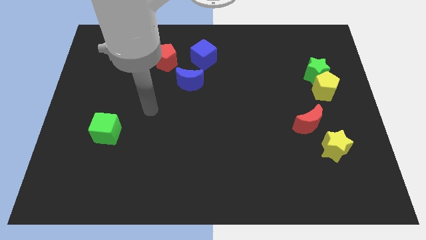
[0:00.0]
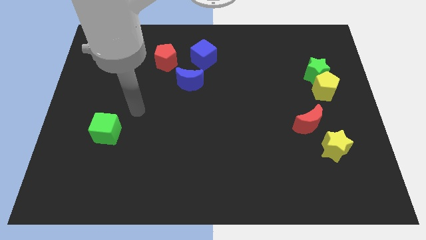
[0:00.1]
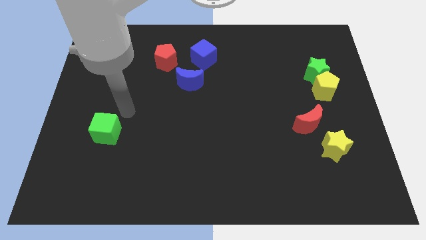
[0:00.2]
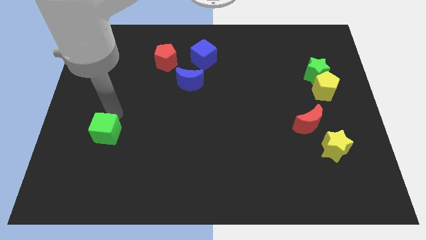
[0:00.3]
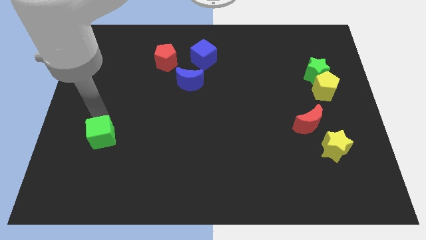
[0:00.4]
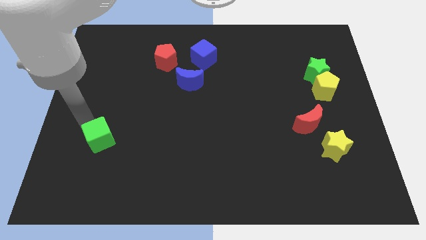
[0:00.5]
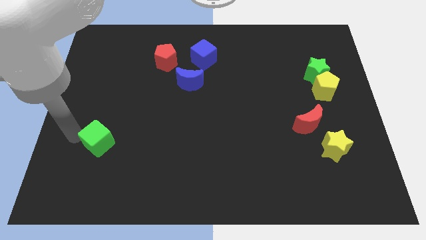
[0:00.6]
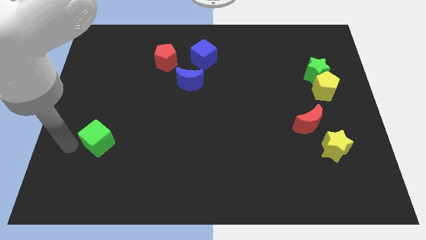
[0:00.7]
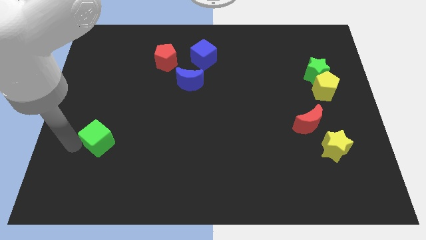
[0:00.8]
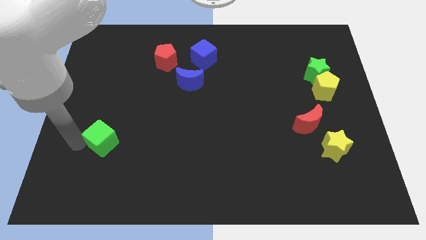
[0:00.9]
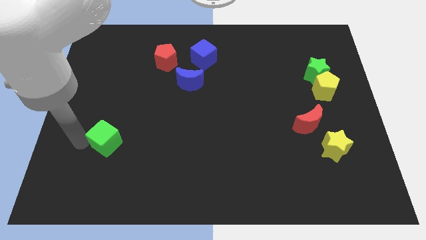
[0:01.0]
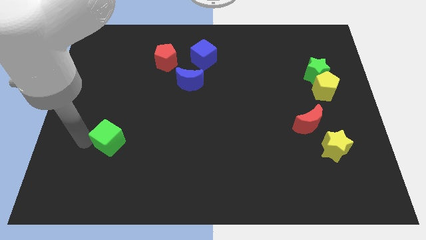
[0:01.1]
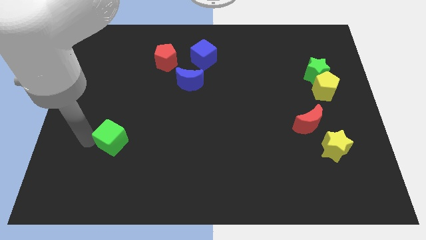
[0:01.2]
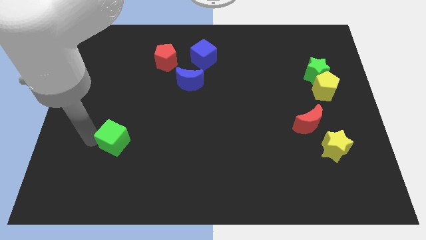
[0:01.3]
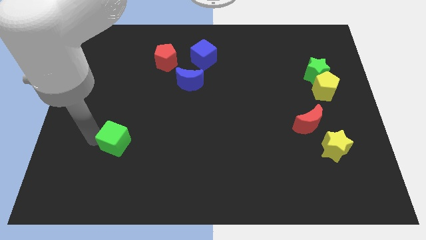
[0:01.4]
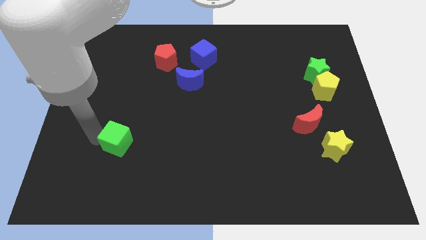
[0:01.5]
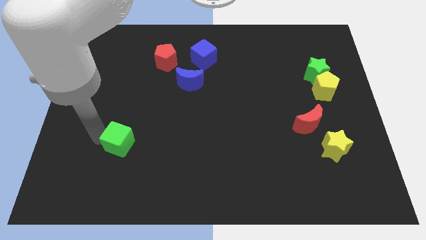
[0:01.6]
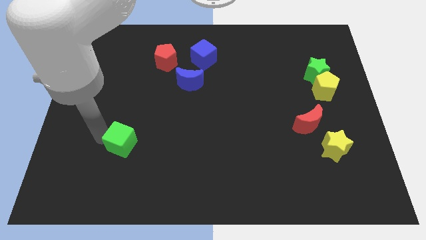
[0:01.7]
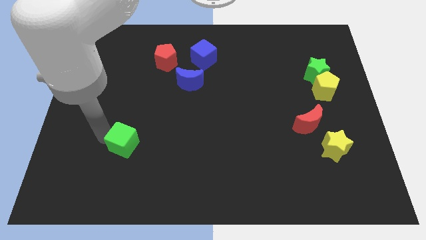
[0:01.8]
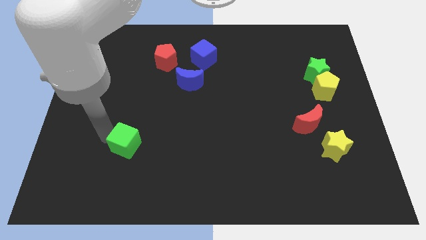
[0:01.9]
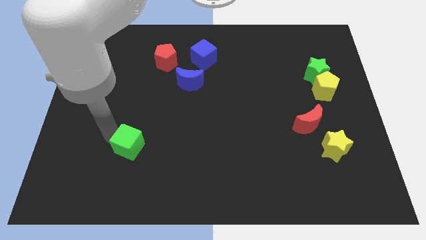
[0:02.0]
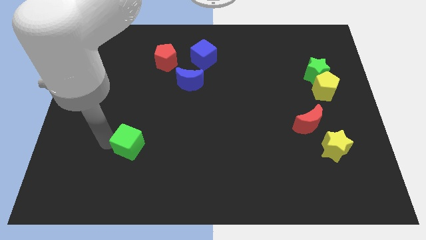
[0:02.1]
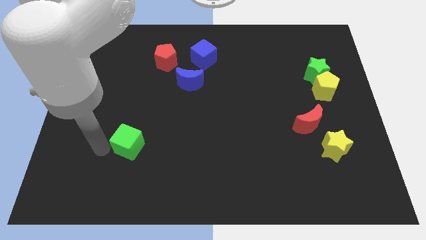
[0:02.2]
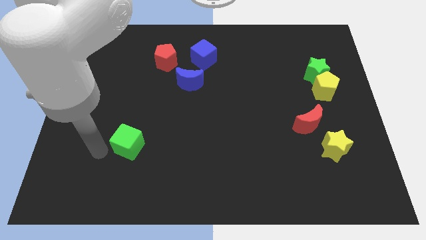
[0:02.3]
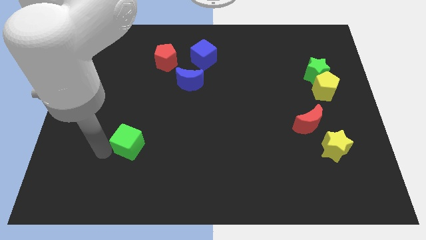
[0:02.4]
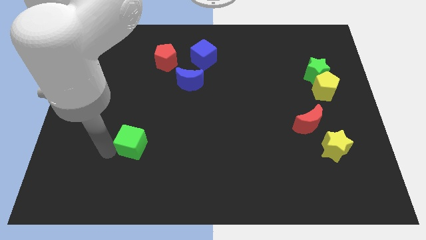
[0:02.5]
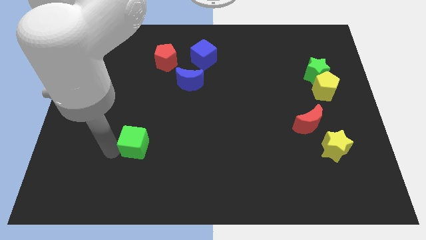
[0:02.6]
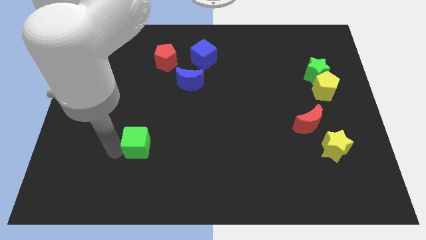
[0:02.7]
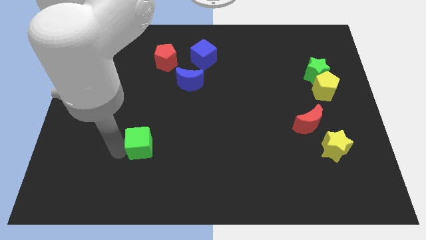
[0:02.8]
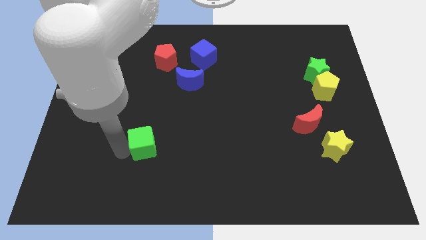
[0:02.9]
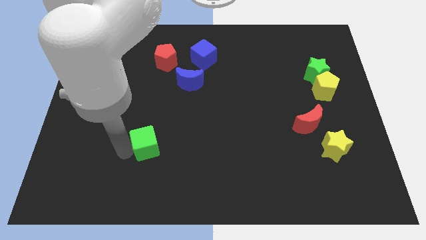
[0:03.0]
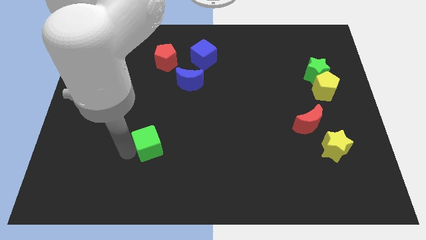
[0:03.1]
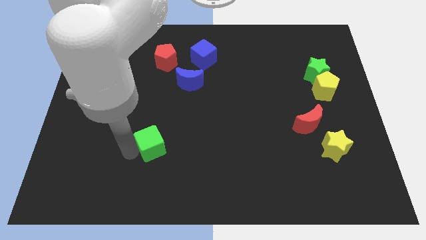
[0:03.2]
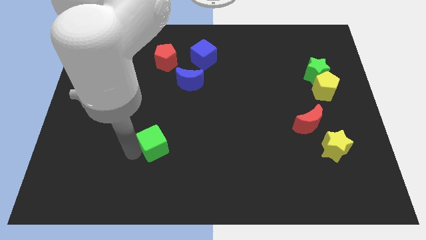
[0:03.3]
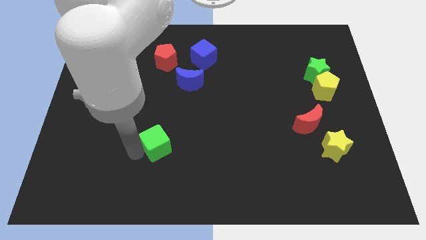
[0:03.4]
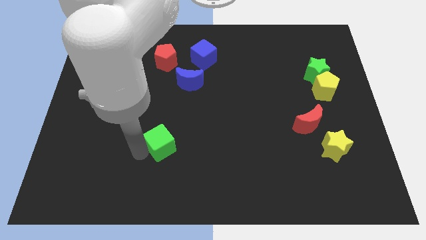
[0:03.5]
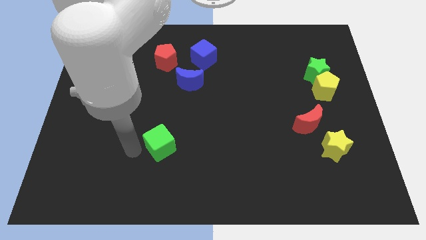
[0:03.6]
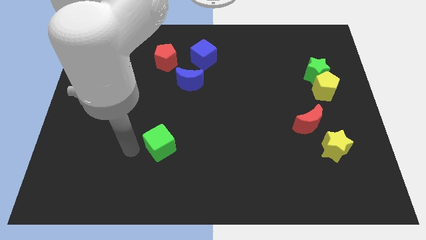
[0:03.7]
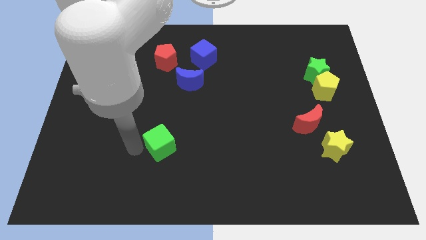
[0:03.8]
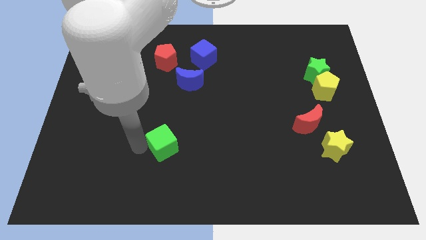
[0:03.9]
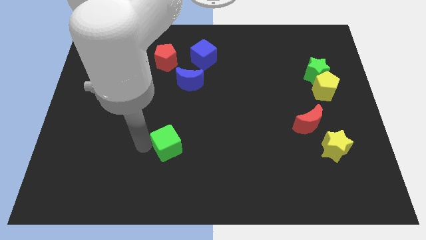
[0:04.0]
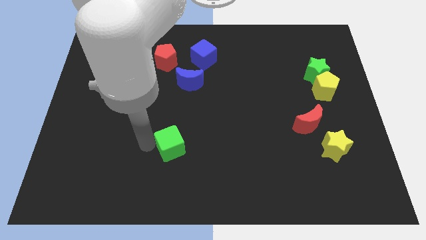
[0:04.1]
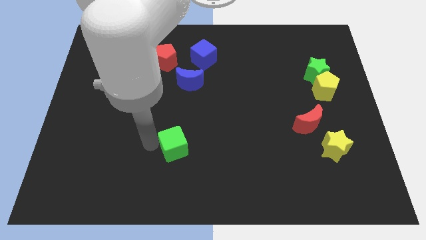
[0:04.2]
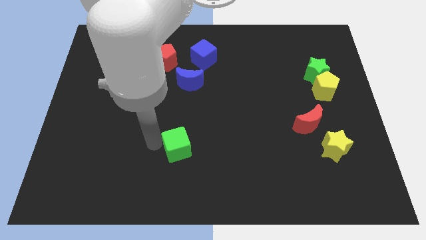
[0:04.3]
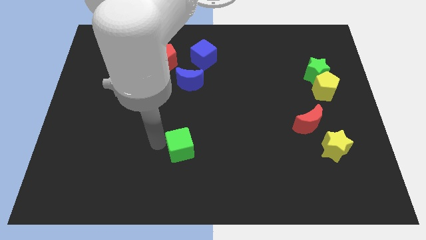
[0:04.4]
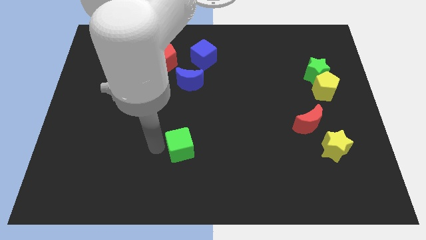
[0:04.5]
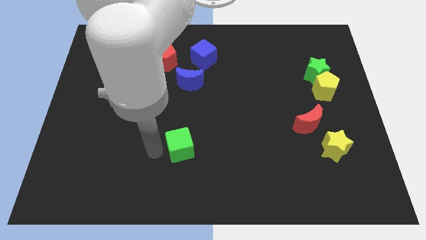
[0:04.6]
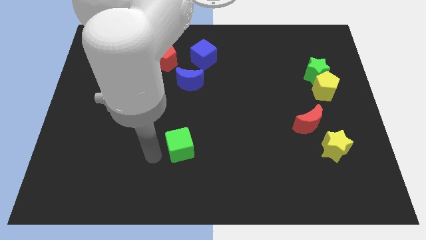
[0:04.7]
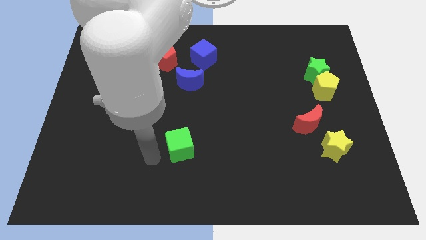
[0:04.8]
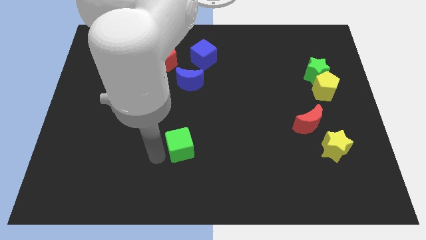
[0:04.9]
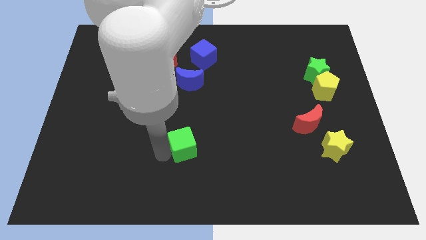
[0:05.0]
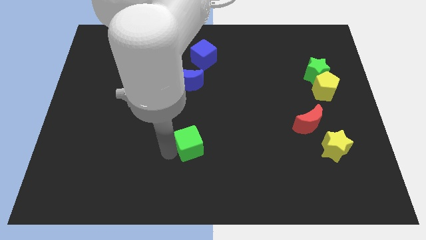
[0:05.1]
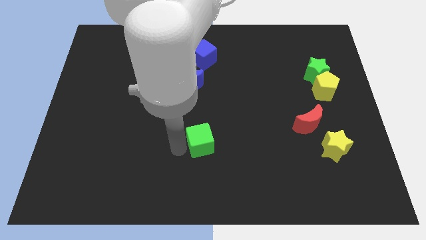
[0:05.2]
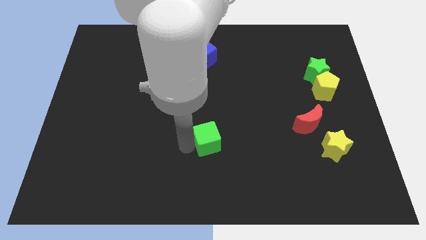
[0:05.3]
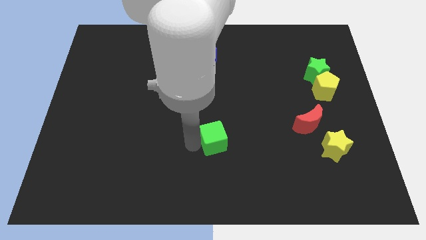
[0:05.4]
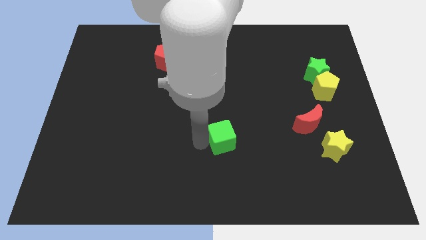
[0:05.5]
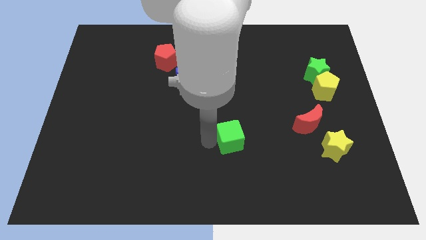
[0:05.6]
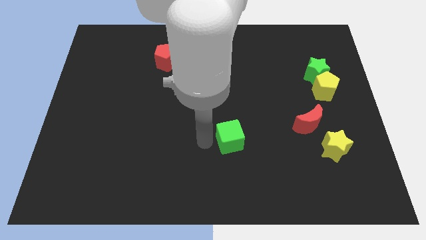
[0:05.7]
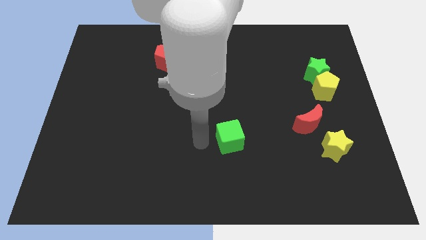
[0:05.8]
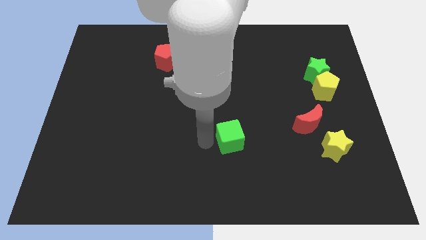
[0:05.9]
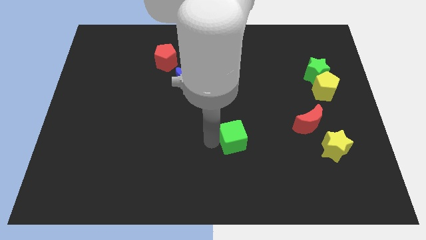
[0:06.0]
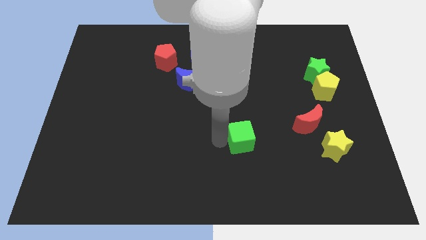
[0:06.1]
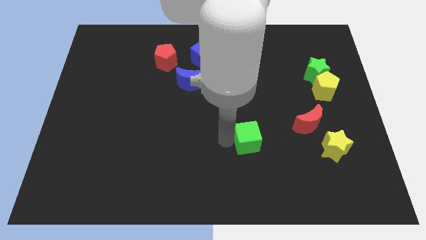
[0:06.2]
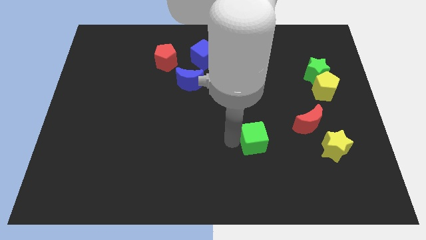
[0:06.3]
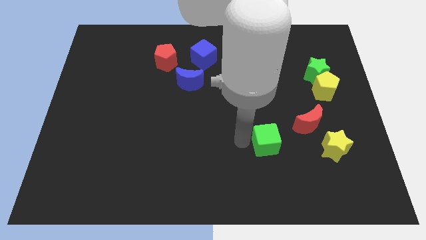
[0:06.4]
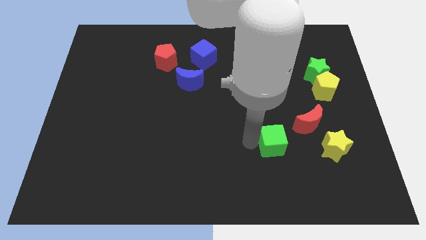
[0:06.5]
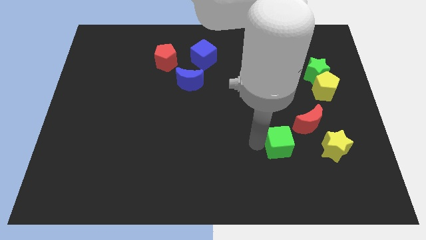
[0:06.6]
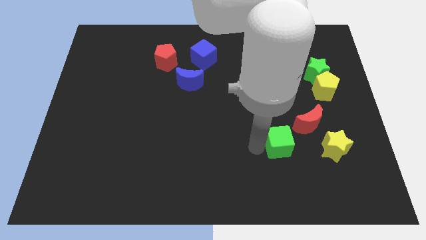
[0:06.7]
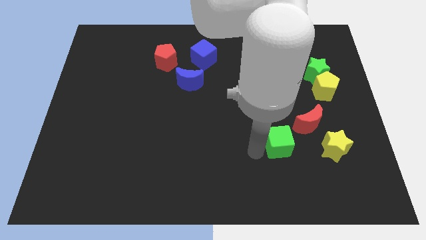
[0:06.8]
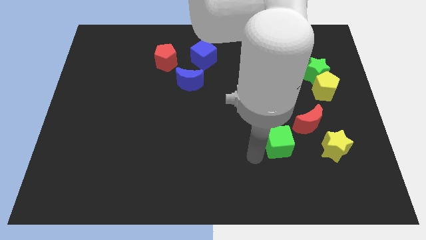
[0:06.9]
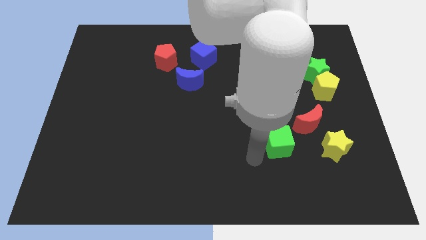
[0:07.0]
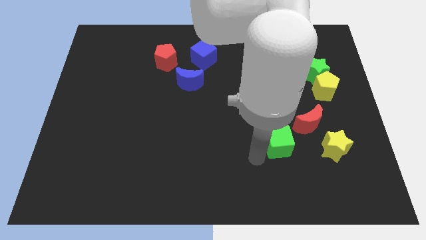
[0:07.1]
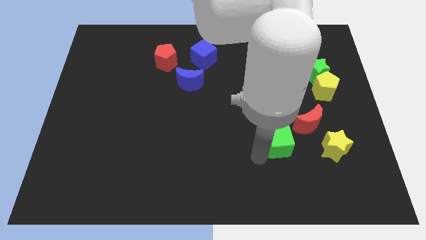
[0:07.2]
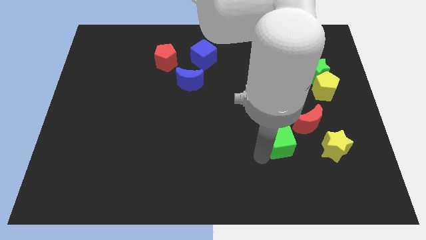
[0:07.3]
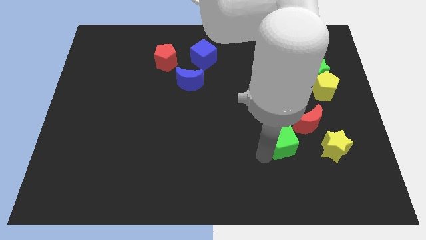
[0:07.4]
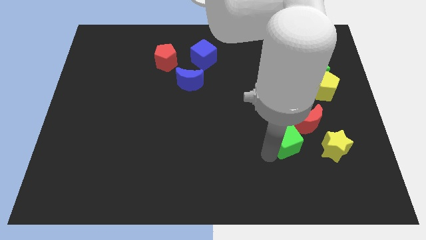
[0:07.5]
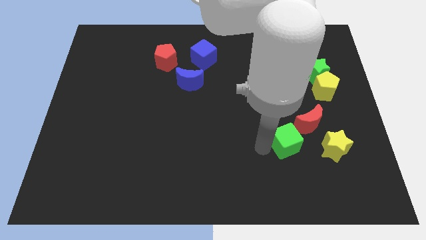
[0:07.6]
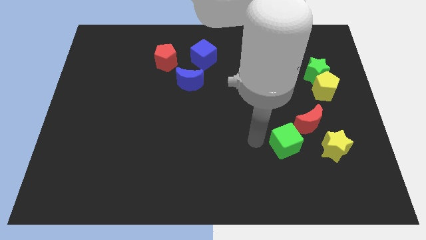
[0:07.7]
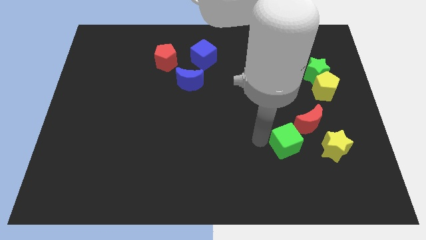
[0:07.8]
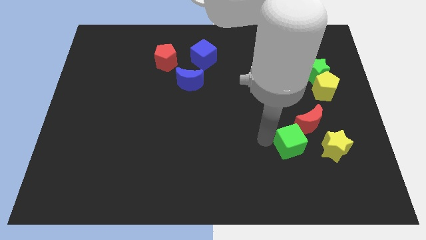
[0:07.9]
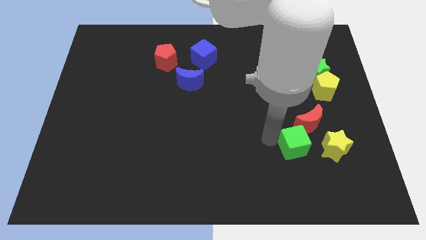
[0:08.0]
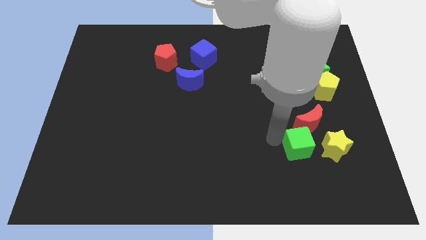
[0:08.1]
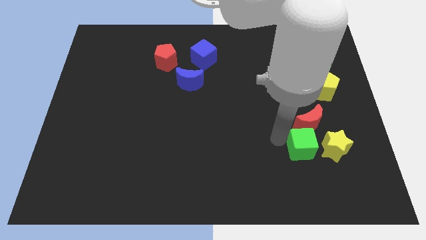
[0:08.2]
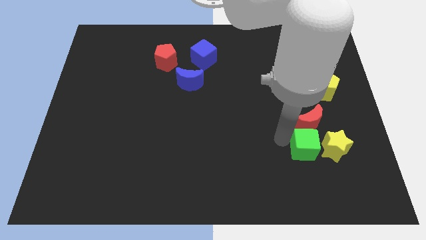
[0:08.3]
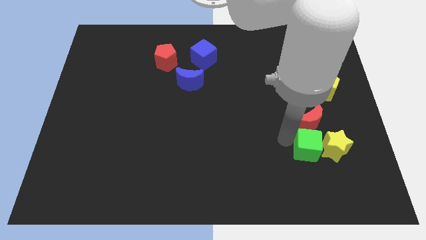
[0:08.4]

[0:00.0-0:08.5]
put the green cube next to the yellow star
